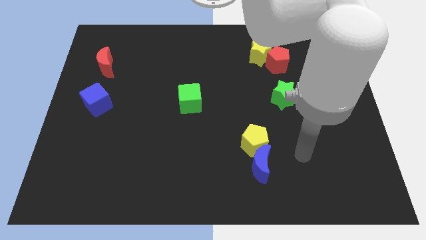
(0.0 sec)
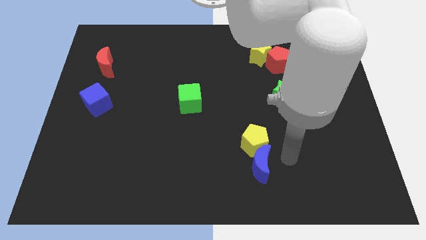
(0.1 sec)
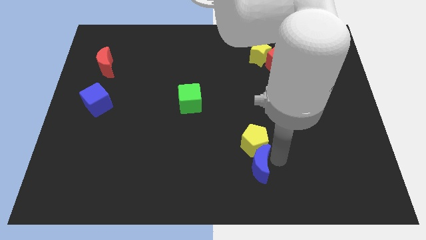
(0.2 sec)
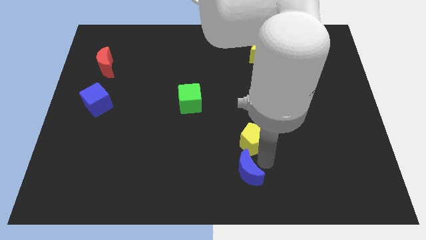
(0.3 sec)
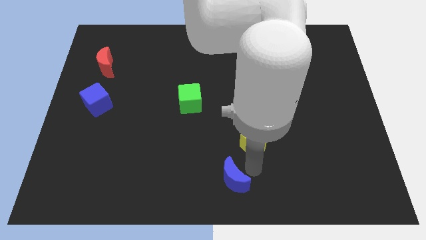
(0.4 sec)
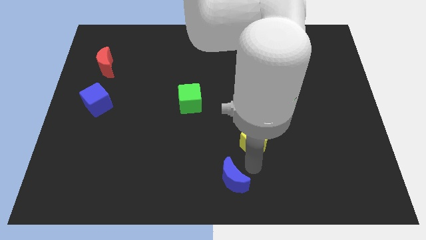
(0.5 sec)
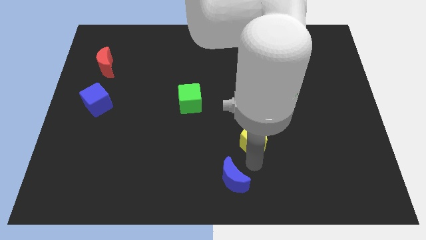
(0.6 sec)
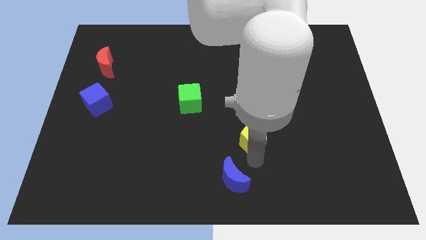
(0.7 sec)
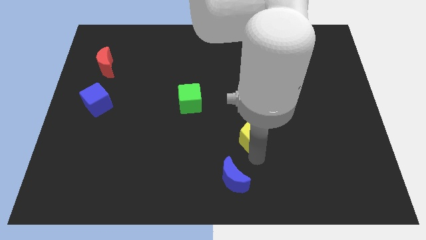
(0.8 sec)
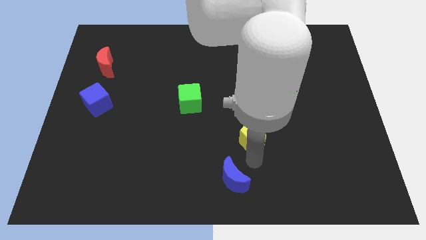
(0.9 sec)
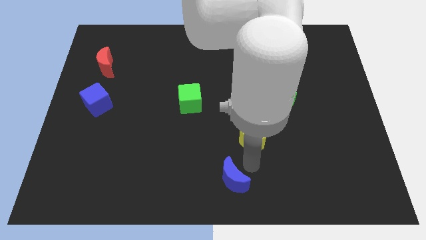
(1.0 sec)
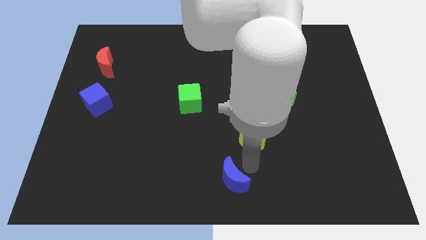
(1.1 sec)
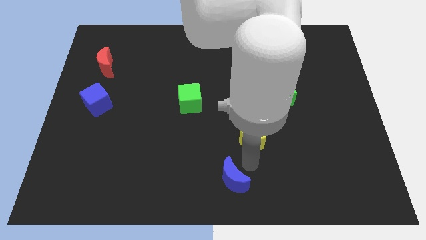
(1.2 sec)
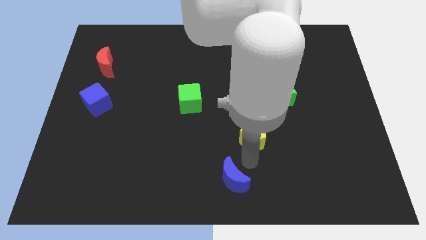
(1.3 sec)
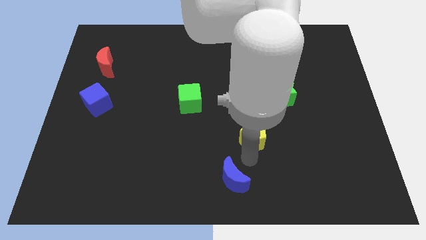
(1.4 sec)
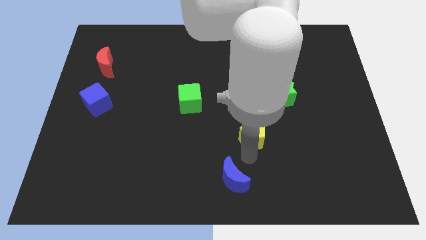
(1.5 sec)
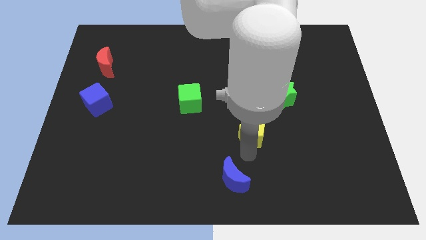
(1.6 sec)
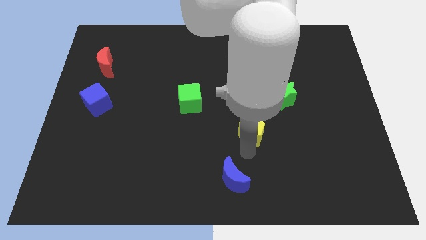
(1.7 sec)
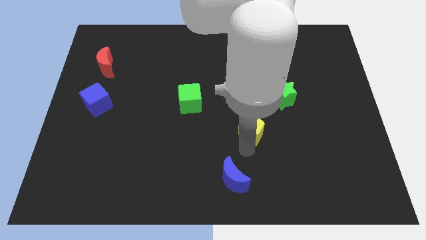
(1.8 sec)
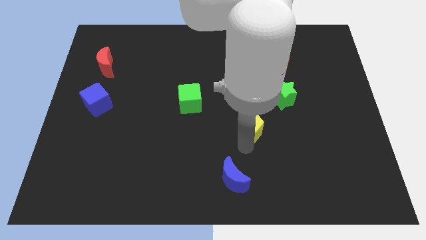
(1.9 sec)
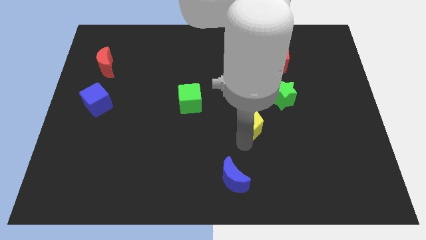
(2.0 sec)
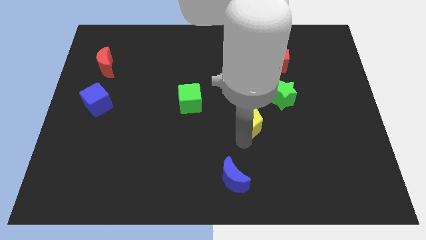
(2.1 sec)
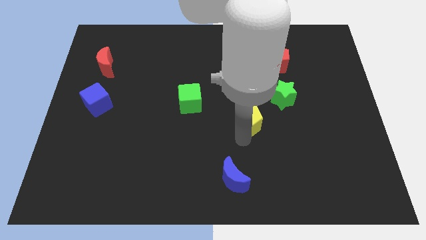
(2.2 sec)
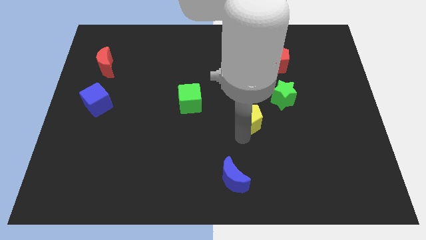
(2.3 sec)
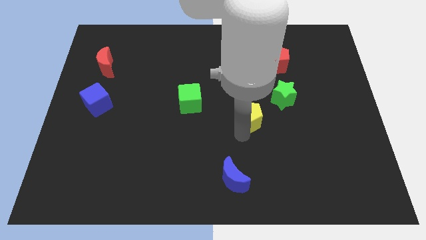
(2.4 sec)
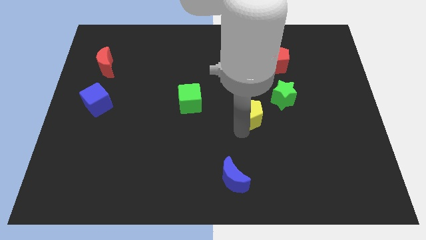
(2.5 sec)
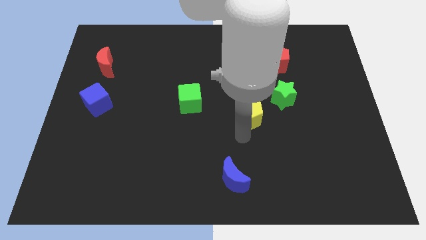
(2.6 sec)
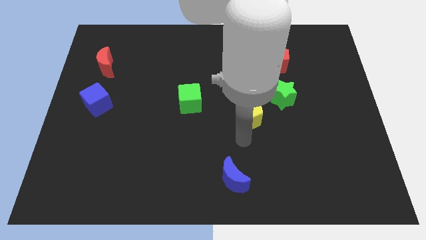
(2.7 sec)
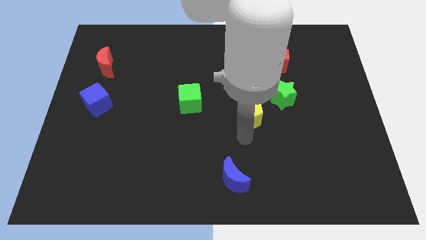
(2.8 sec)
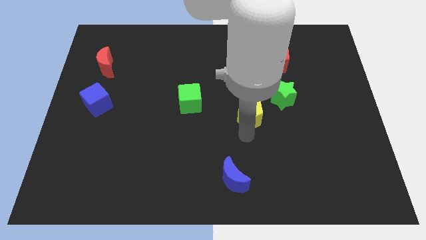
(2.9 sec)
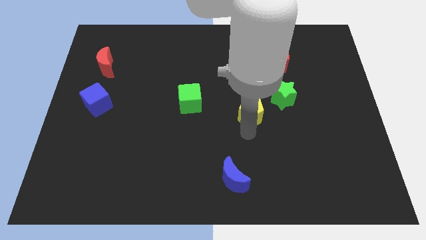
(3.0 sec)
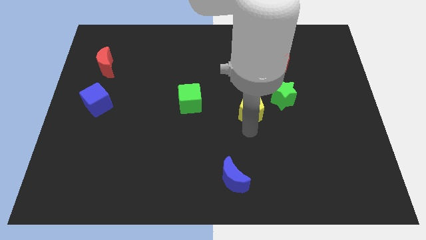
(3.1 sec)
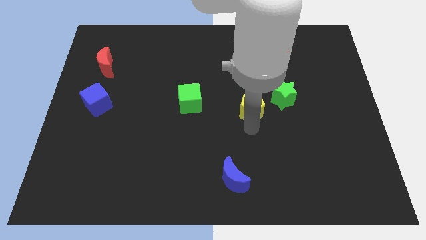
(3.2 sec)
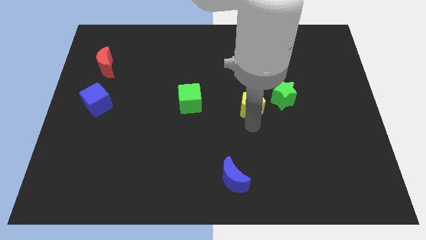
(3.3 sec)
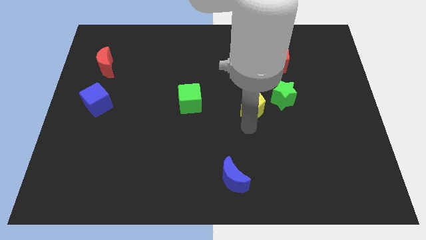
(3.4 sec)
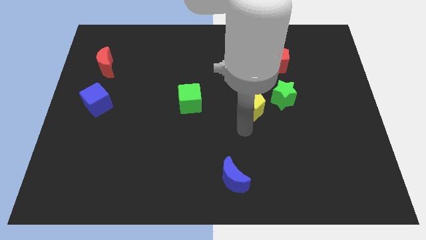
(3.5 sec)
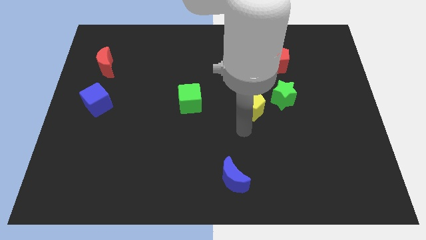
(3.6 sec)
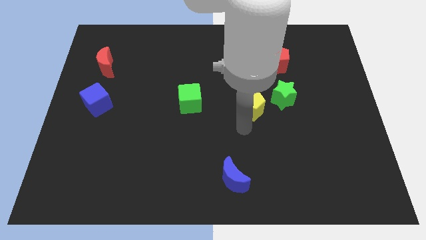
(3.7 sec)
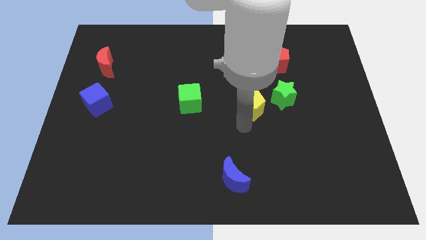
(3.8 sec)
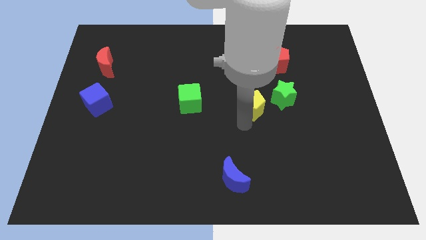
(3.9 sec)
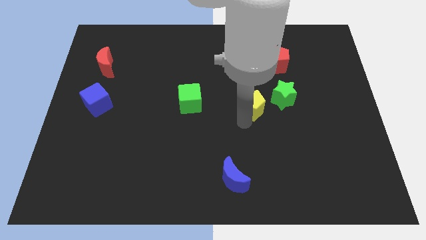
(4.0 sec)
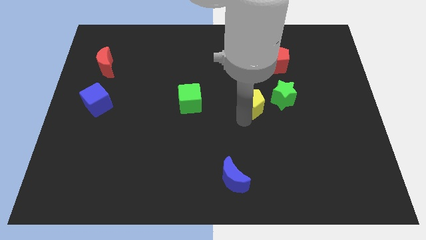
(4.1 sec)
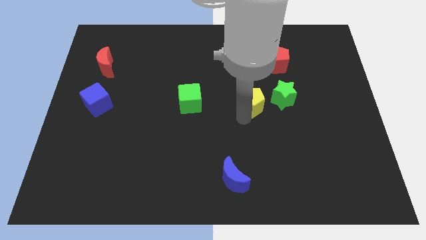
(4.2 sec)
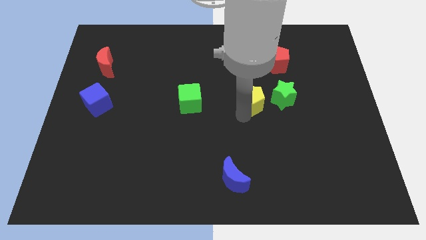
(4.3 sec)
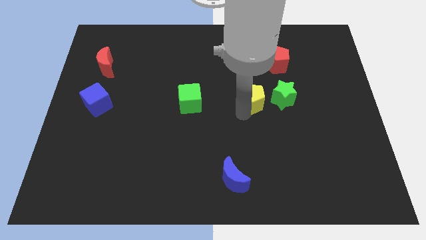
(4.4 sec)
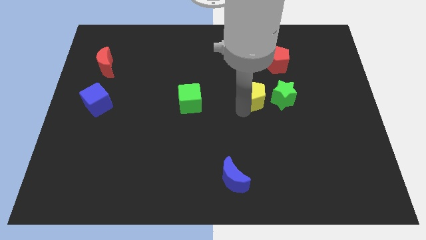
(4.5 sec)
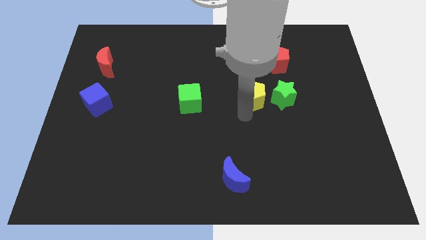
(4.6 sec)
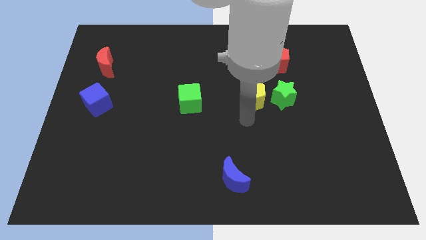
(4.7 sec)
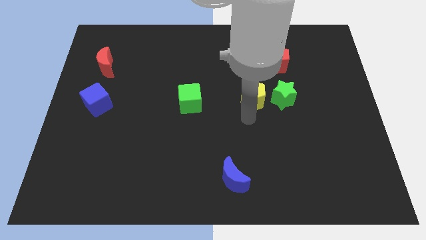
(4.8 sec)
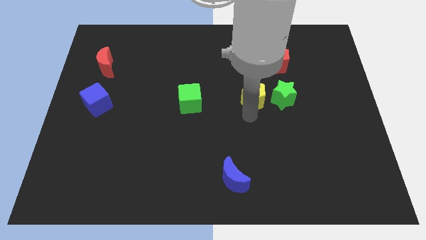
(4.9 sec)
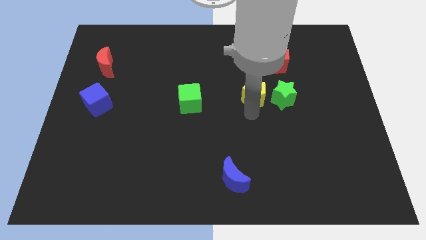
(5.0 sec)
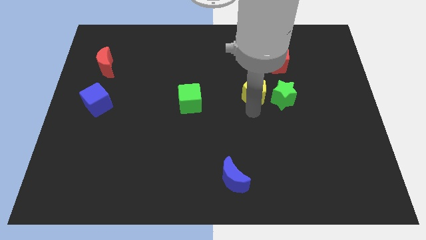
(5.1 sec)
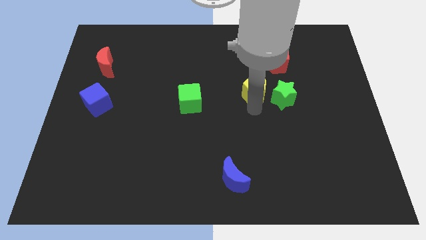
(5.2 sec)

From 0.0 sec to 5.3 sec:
put the yellow pentagon to the bottom left of the red pentagon

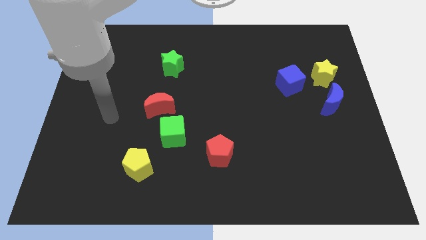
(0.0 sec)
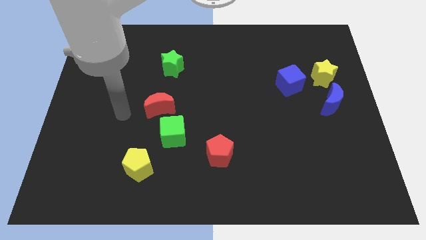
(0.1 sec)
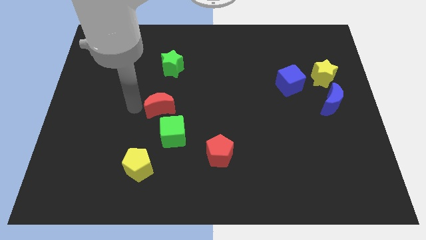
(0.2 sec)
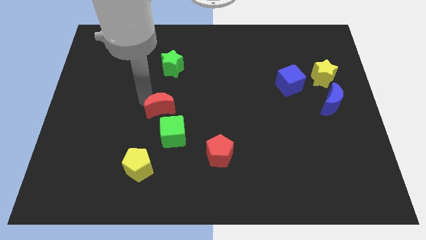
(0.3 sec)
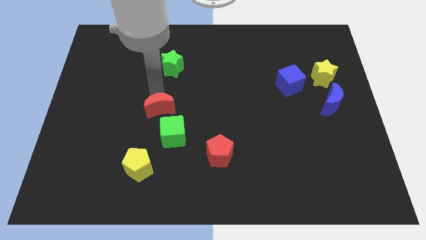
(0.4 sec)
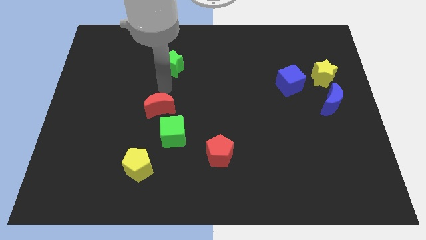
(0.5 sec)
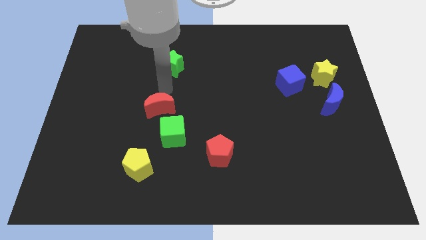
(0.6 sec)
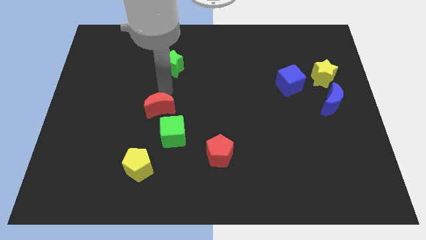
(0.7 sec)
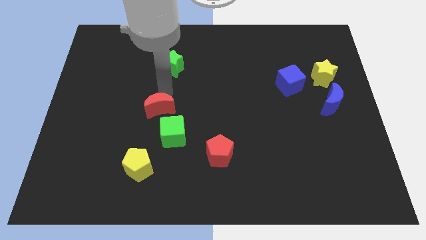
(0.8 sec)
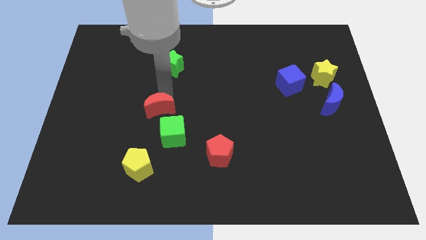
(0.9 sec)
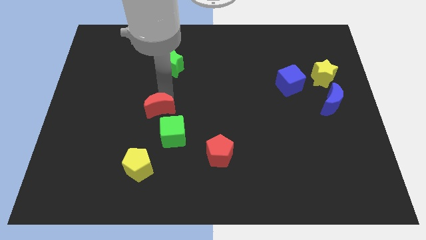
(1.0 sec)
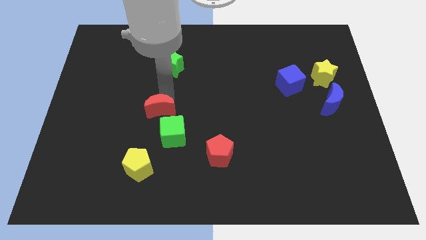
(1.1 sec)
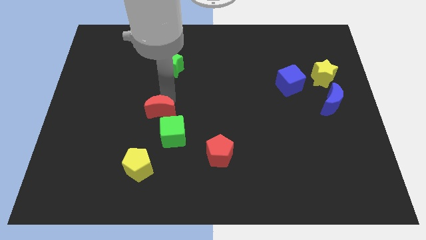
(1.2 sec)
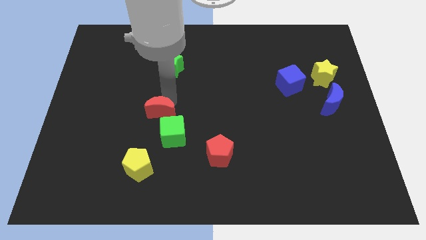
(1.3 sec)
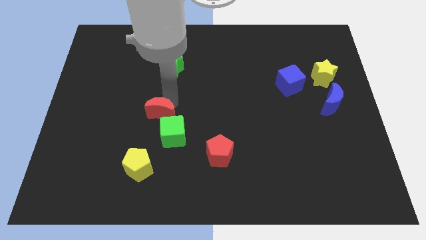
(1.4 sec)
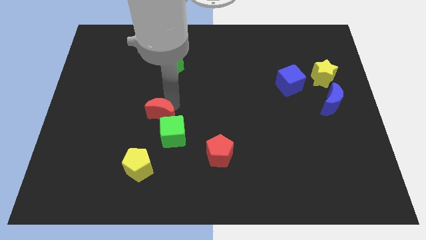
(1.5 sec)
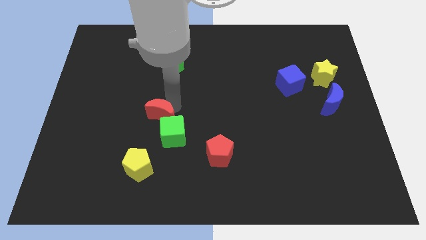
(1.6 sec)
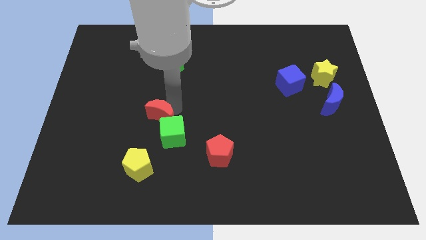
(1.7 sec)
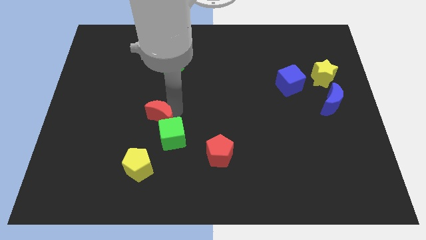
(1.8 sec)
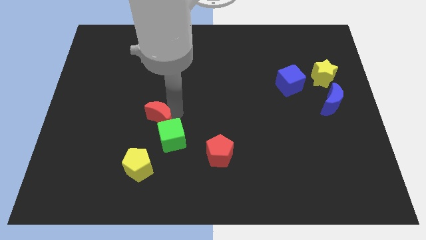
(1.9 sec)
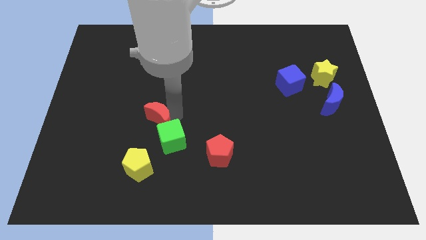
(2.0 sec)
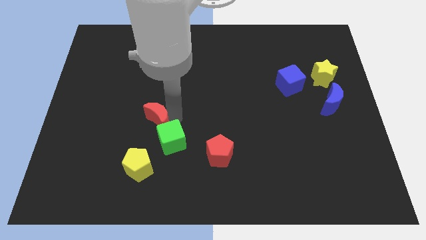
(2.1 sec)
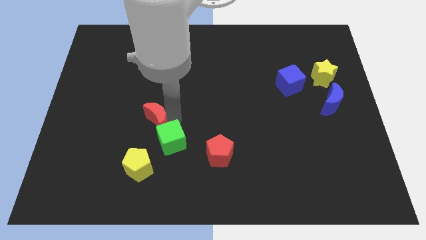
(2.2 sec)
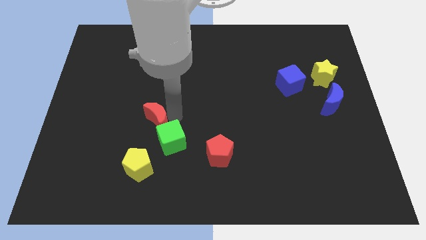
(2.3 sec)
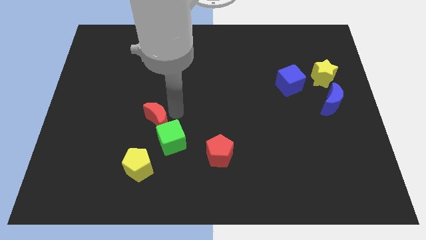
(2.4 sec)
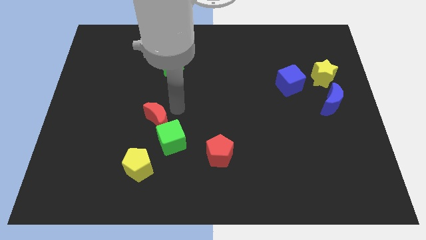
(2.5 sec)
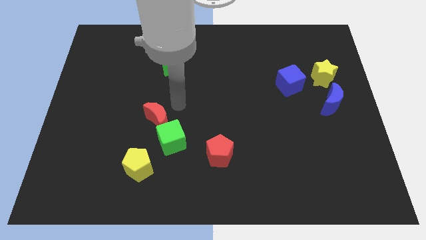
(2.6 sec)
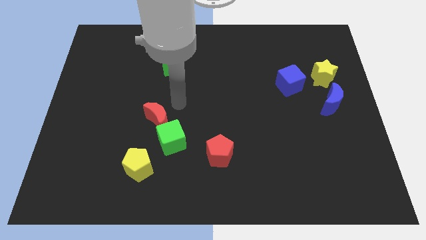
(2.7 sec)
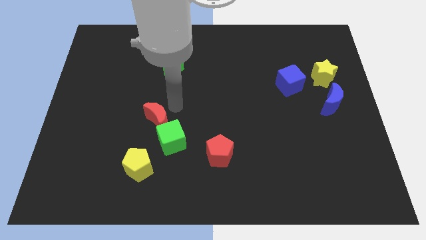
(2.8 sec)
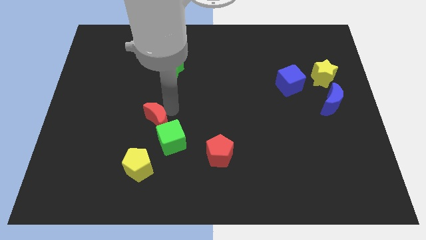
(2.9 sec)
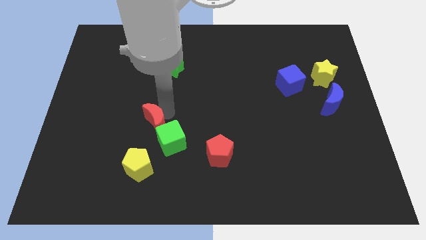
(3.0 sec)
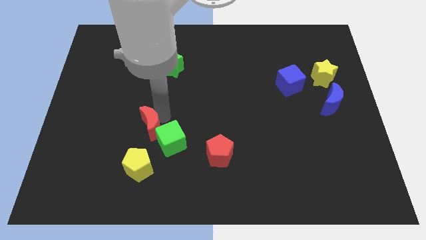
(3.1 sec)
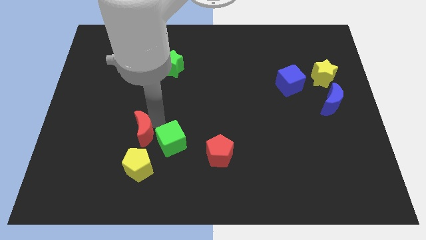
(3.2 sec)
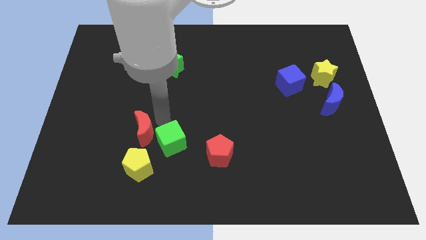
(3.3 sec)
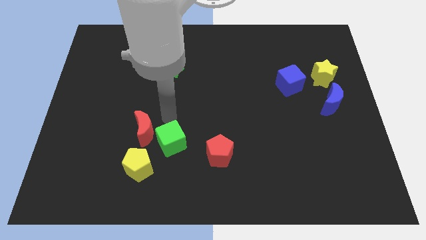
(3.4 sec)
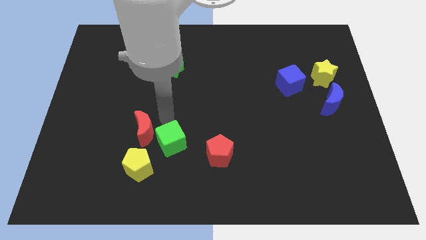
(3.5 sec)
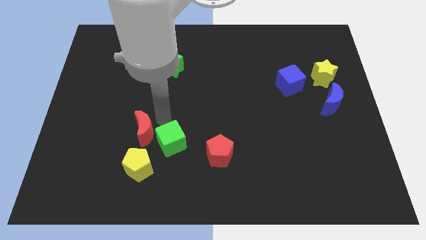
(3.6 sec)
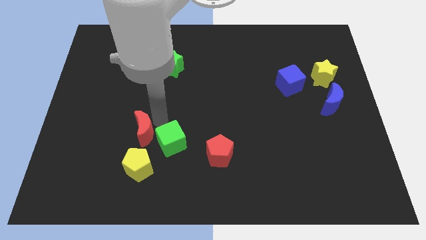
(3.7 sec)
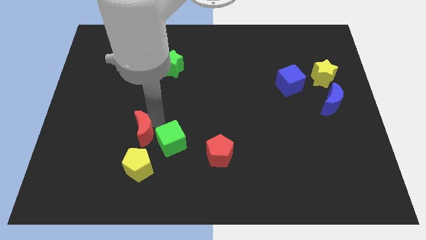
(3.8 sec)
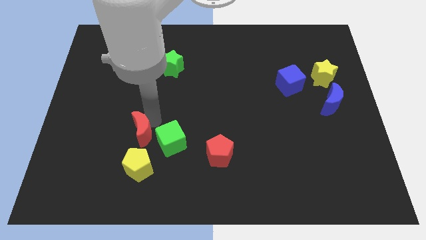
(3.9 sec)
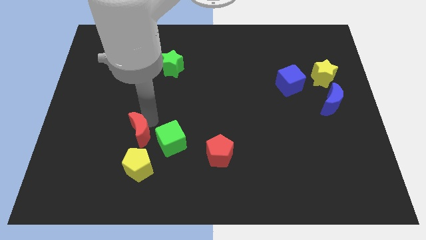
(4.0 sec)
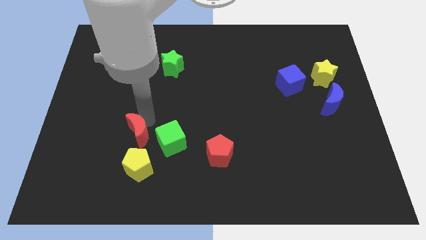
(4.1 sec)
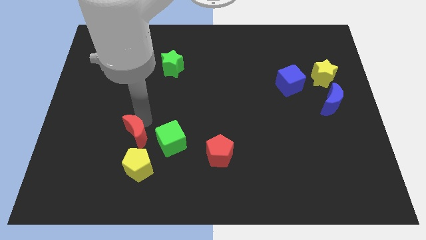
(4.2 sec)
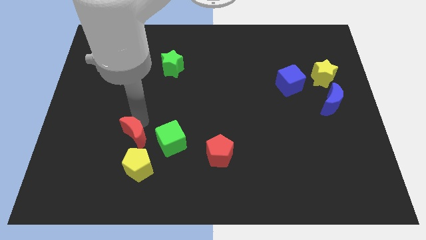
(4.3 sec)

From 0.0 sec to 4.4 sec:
put the red moon to the top left side of the yellow pentagon
